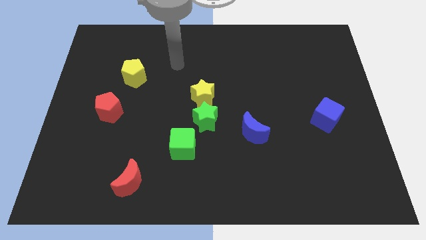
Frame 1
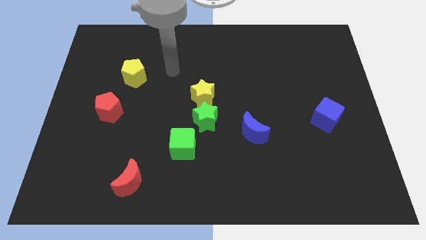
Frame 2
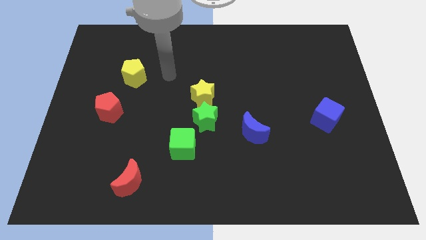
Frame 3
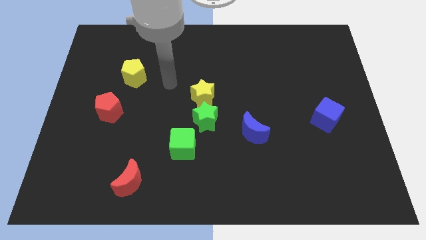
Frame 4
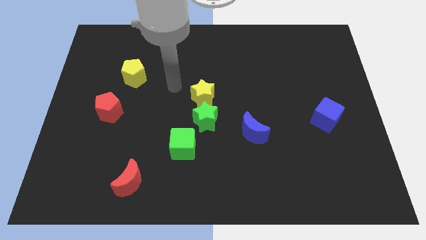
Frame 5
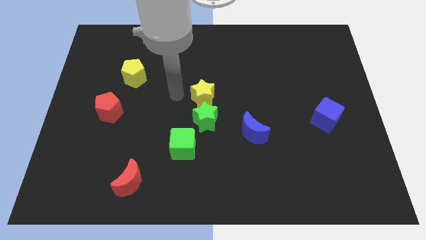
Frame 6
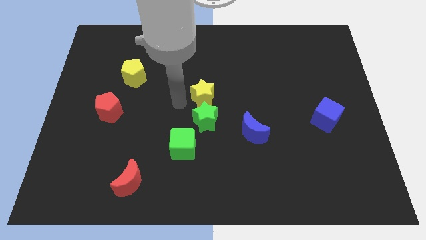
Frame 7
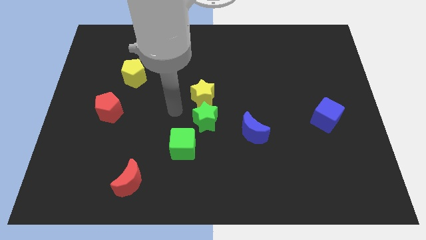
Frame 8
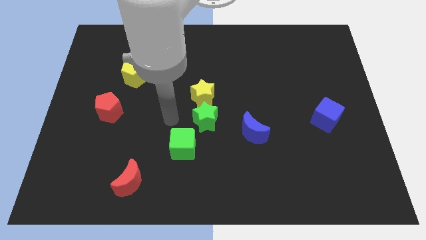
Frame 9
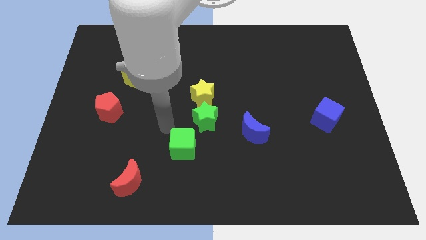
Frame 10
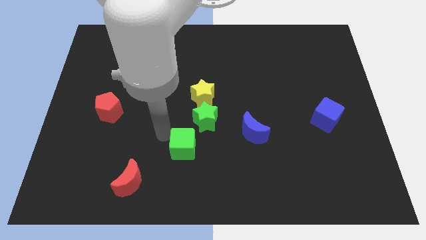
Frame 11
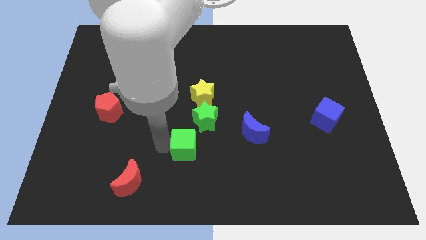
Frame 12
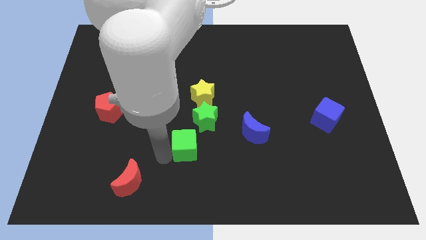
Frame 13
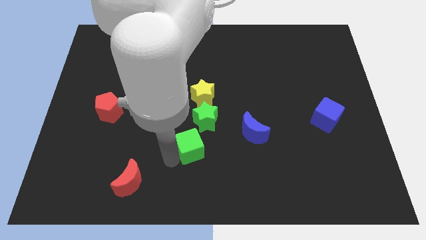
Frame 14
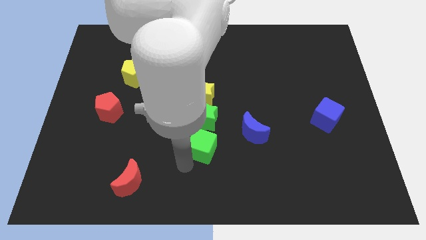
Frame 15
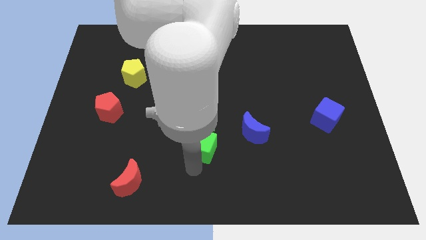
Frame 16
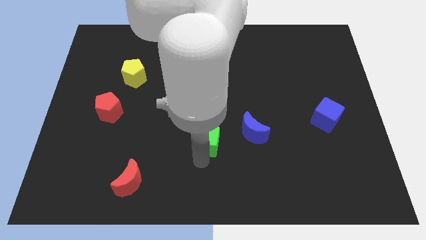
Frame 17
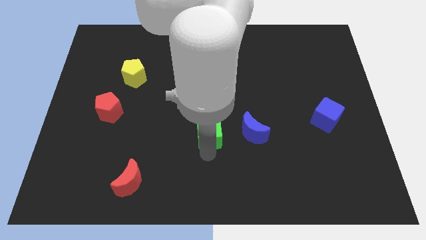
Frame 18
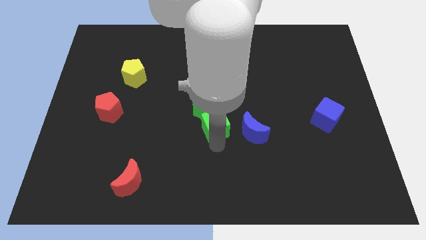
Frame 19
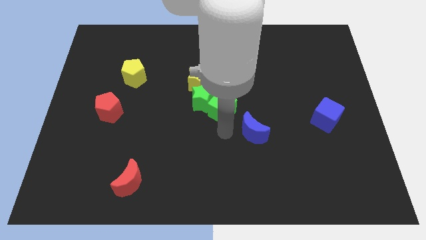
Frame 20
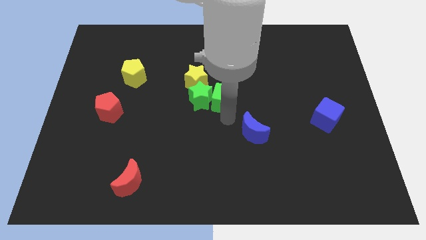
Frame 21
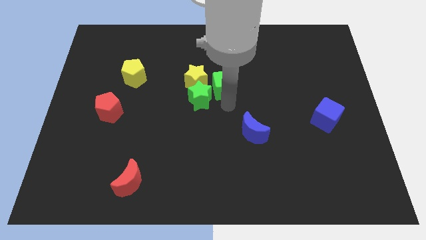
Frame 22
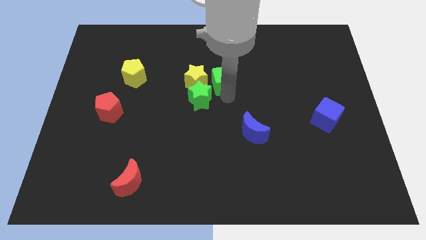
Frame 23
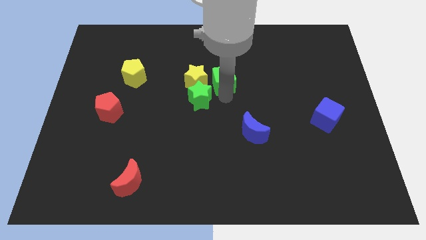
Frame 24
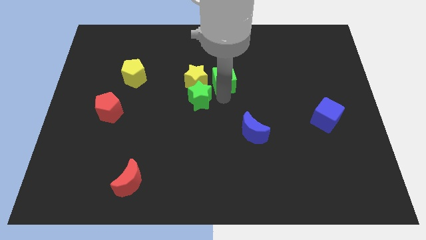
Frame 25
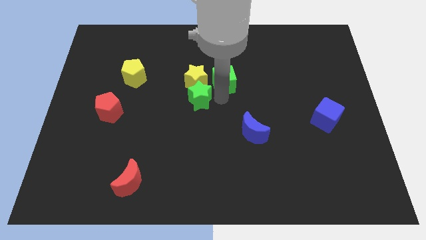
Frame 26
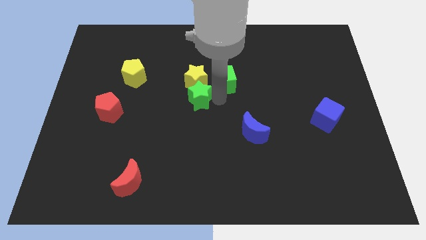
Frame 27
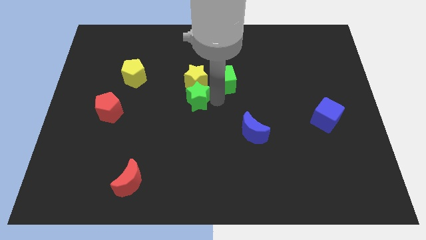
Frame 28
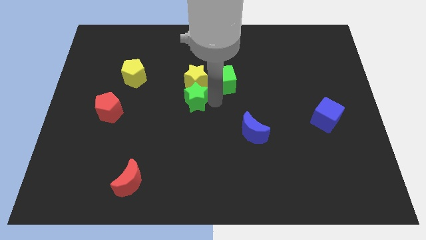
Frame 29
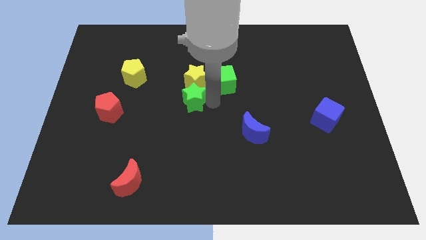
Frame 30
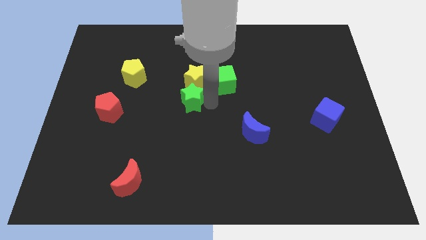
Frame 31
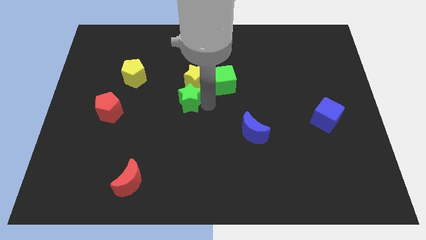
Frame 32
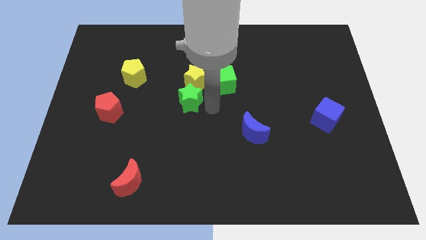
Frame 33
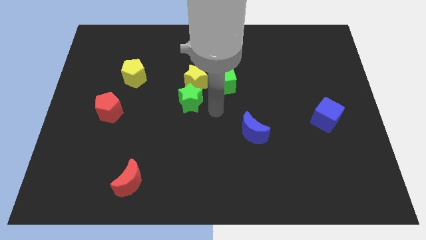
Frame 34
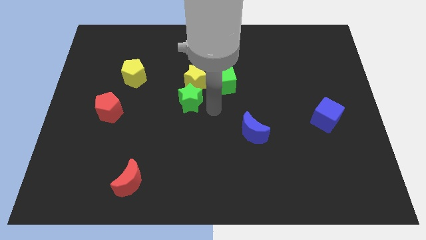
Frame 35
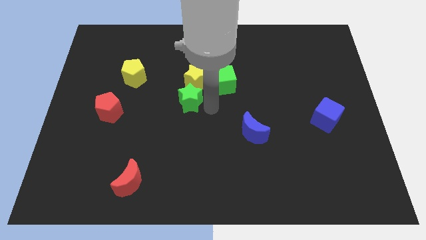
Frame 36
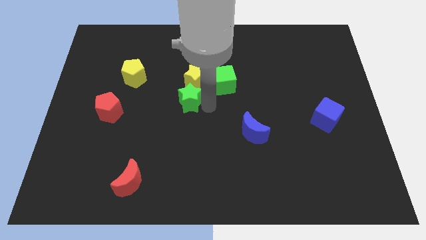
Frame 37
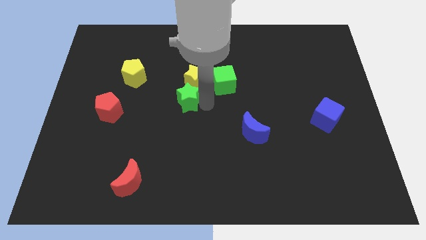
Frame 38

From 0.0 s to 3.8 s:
slightly push the green star upwards and left

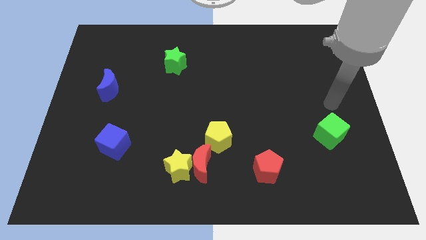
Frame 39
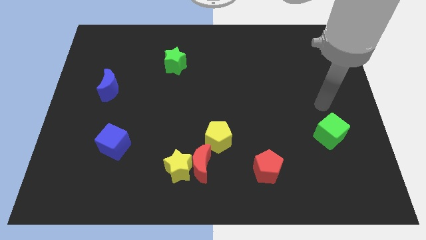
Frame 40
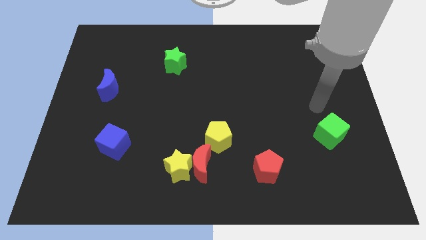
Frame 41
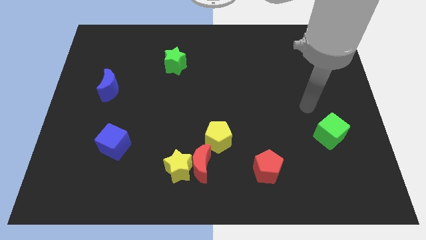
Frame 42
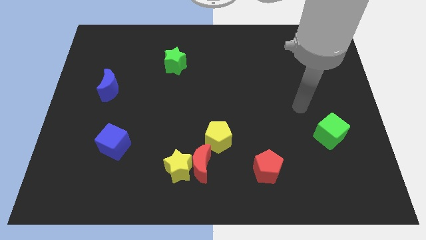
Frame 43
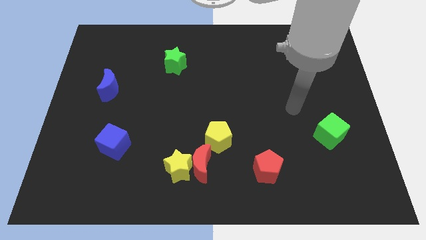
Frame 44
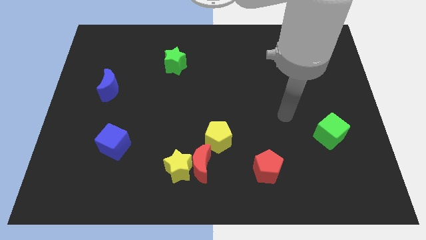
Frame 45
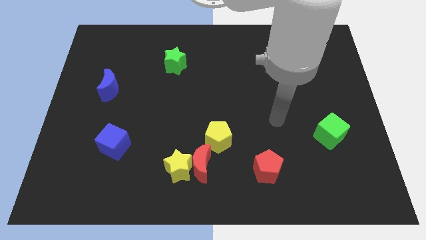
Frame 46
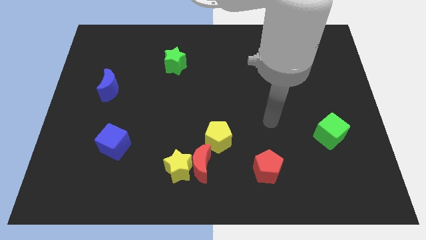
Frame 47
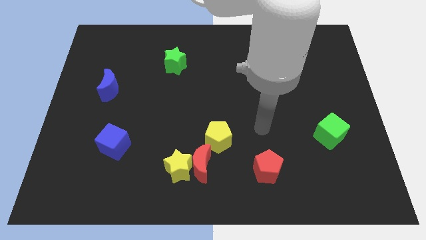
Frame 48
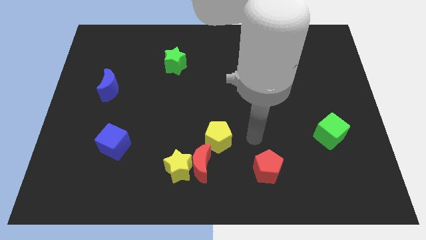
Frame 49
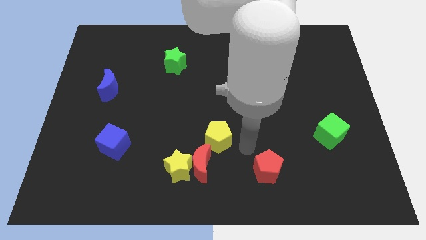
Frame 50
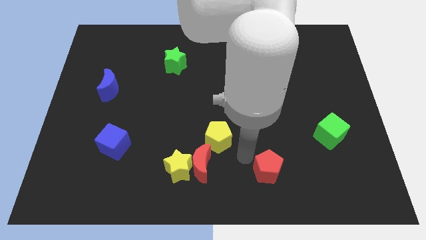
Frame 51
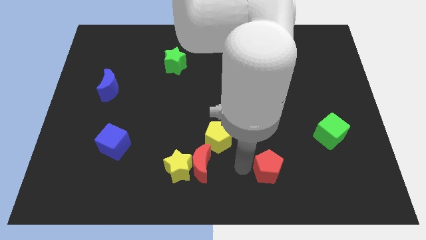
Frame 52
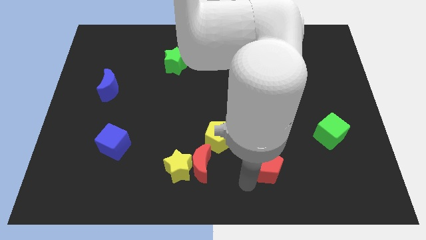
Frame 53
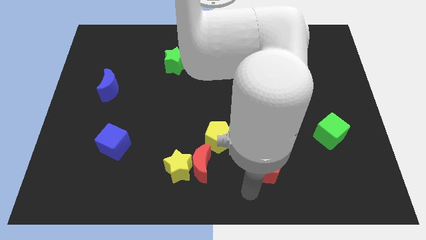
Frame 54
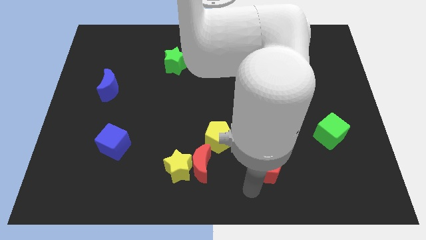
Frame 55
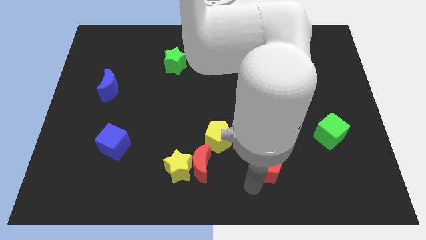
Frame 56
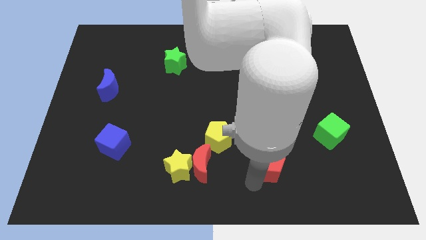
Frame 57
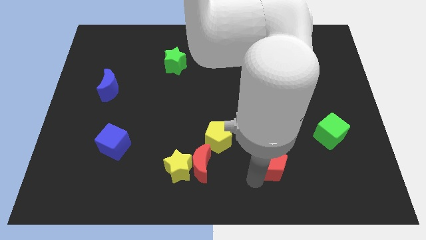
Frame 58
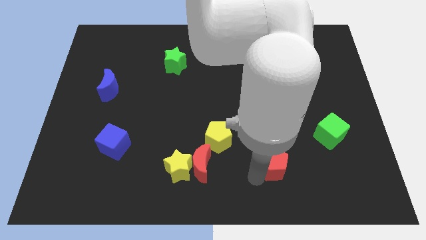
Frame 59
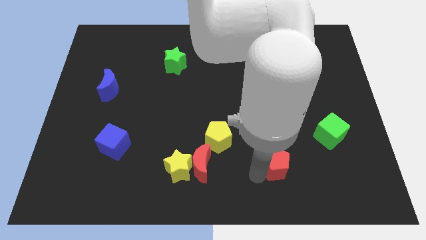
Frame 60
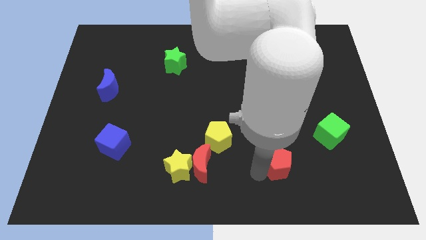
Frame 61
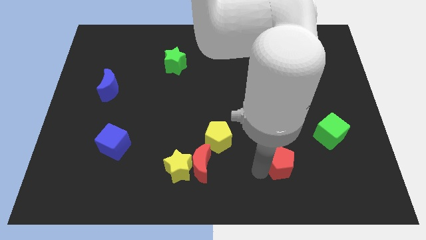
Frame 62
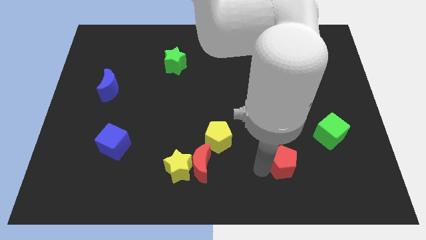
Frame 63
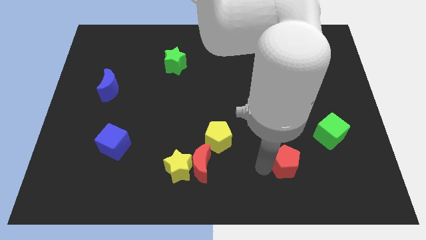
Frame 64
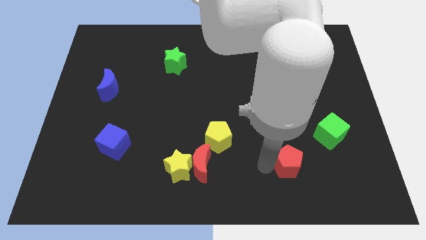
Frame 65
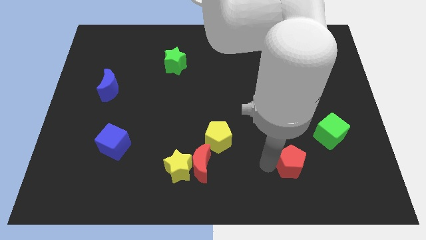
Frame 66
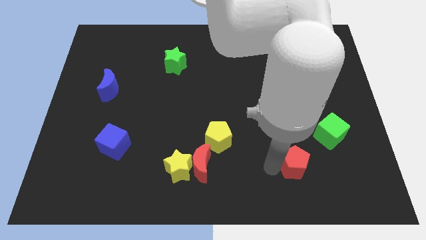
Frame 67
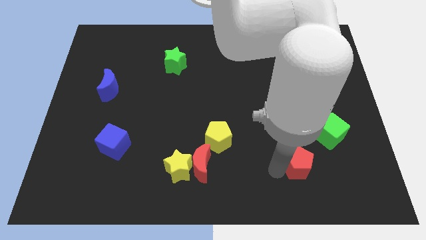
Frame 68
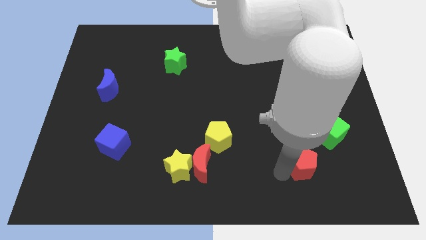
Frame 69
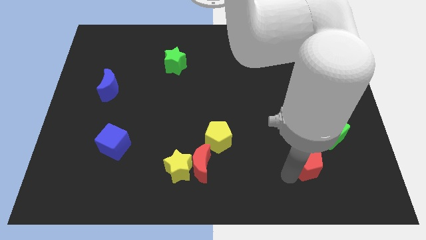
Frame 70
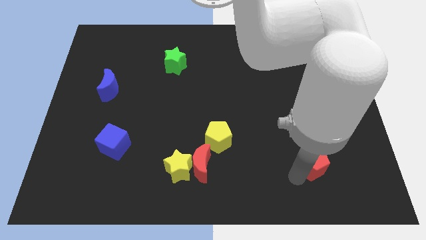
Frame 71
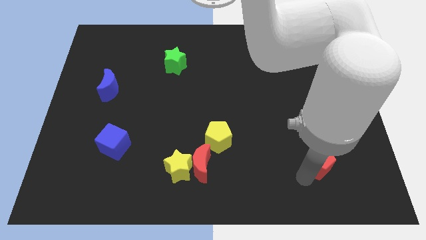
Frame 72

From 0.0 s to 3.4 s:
slightly slide the red pentagon diagonally upwards and to the right

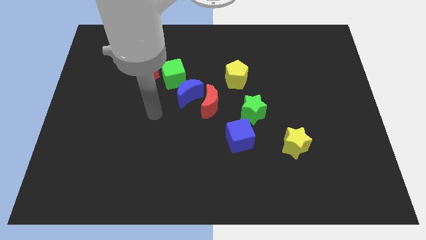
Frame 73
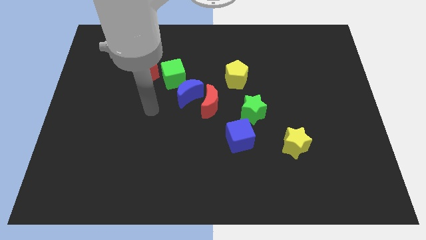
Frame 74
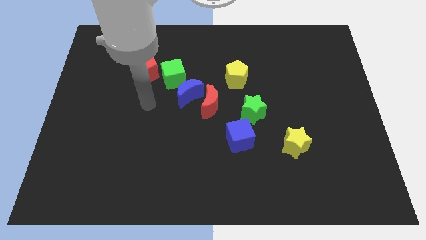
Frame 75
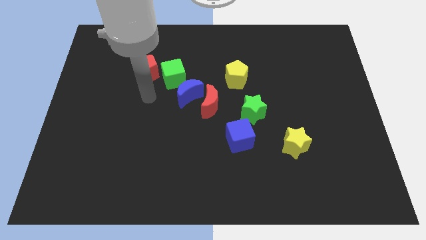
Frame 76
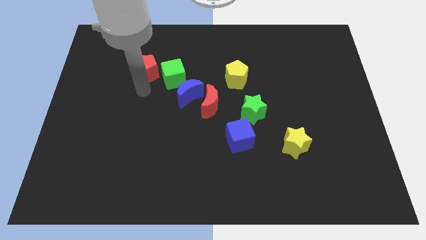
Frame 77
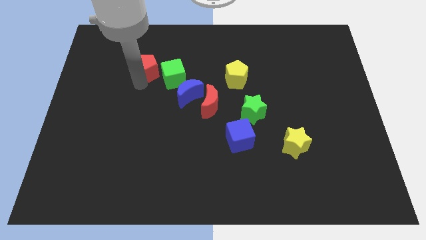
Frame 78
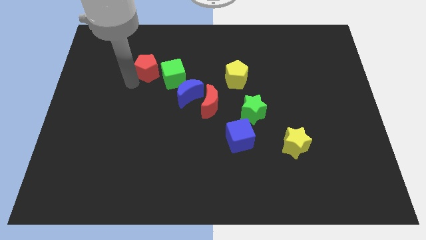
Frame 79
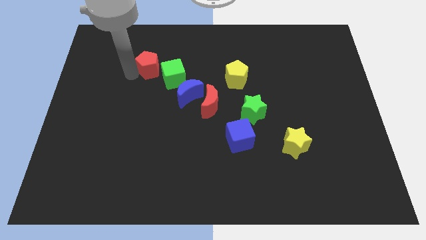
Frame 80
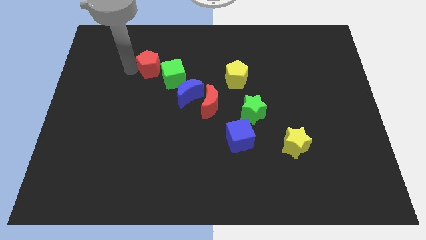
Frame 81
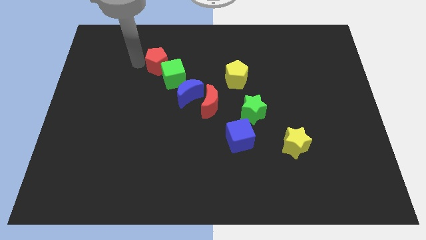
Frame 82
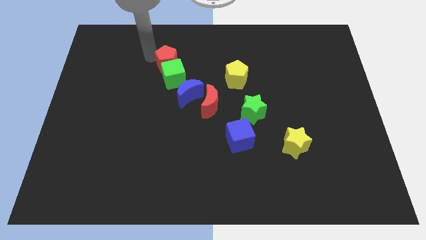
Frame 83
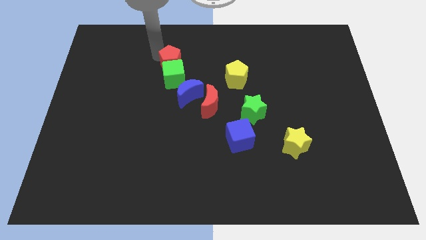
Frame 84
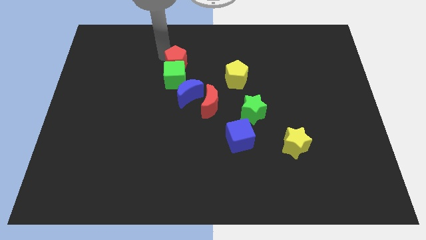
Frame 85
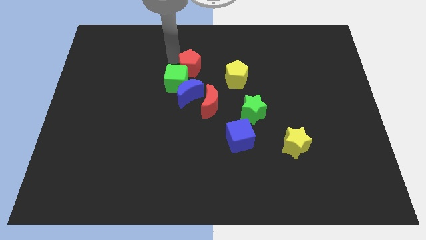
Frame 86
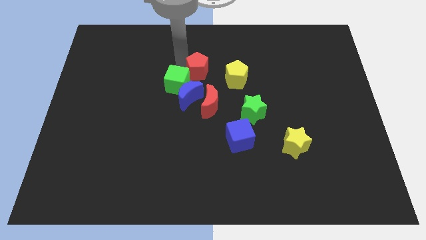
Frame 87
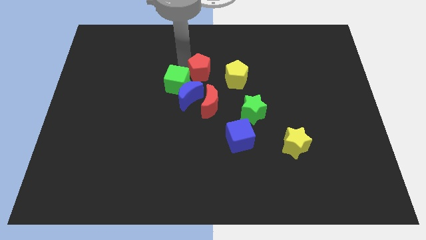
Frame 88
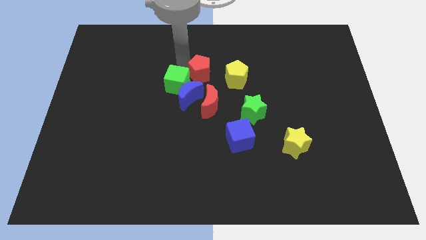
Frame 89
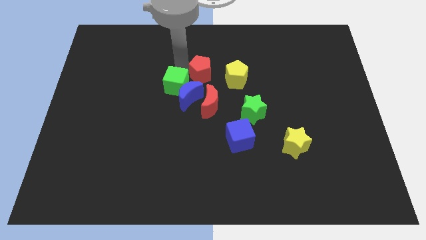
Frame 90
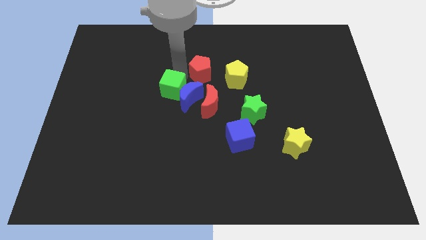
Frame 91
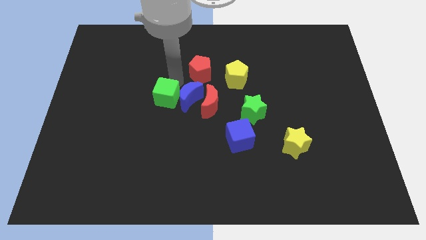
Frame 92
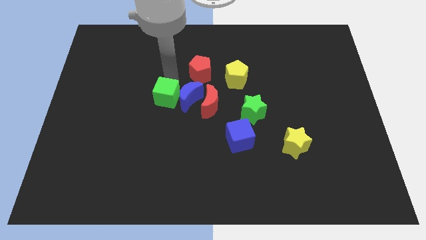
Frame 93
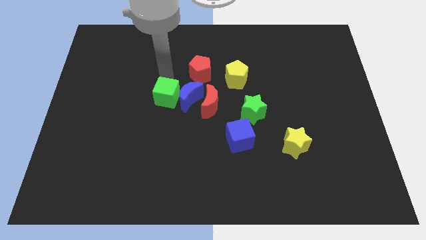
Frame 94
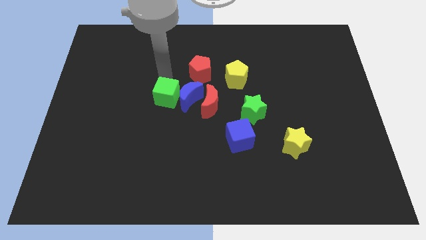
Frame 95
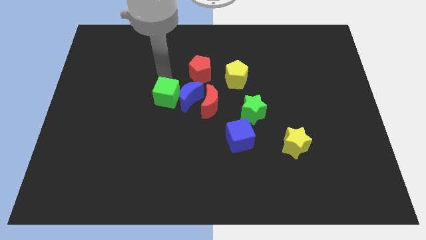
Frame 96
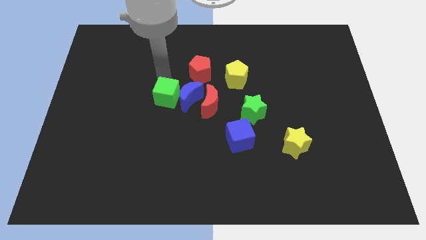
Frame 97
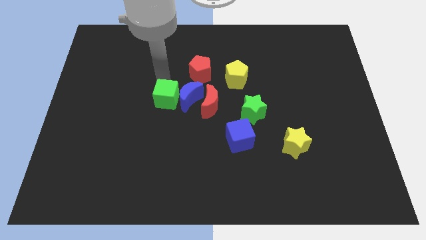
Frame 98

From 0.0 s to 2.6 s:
move the green cube a bit downwards
